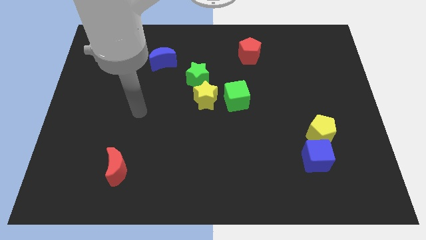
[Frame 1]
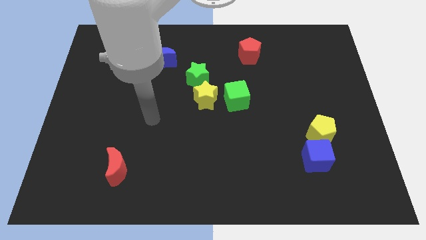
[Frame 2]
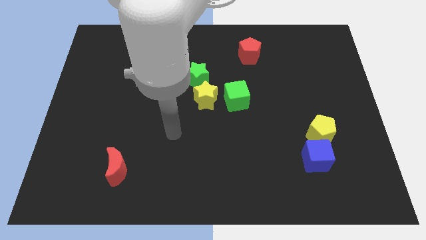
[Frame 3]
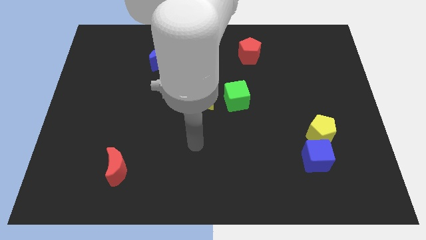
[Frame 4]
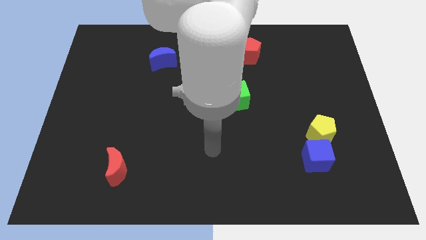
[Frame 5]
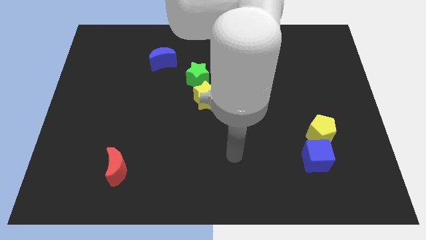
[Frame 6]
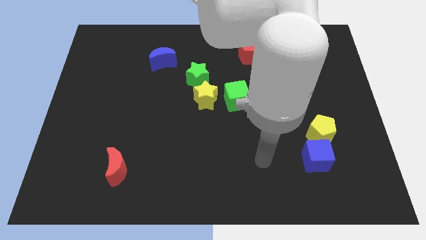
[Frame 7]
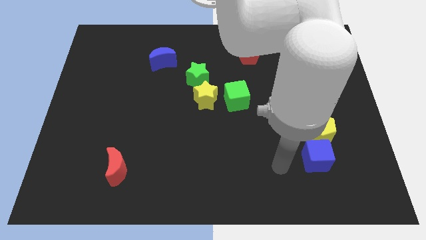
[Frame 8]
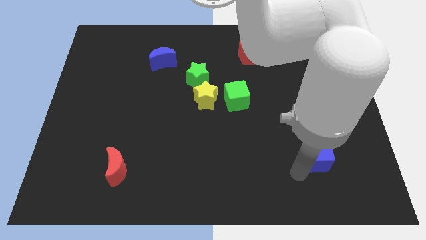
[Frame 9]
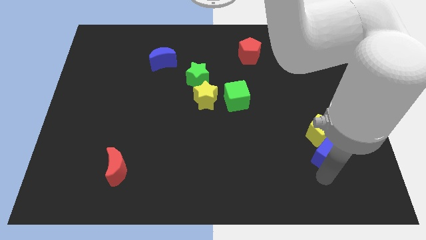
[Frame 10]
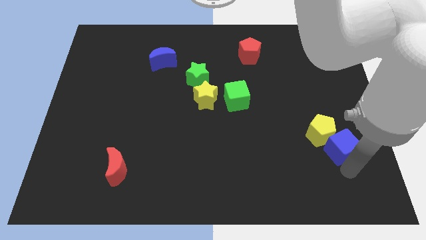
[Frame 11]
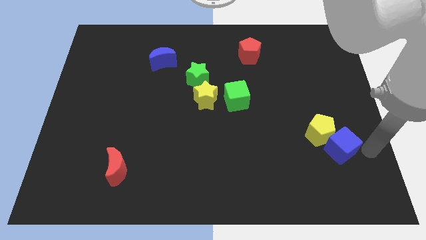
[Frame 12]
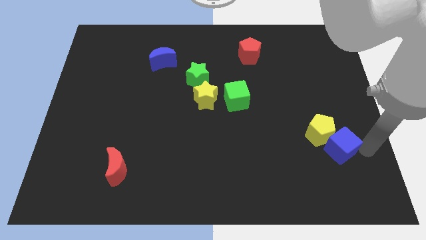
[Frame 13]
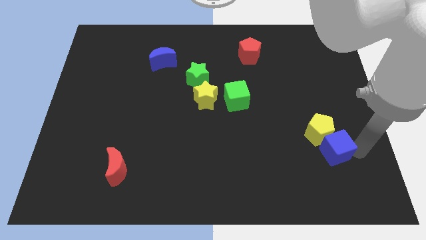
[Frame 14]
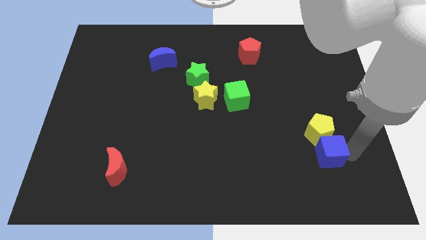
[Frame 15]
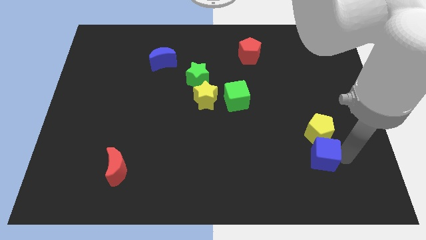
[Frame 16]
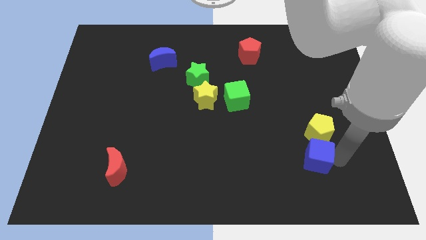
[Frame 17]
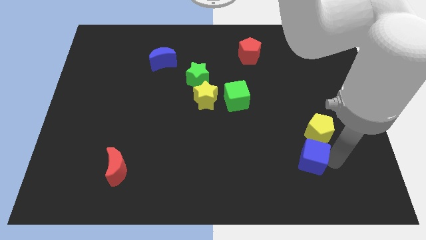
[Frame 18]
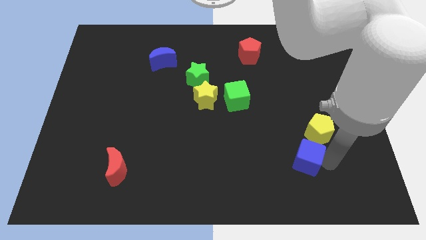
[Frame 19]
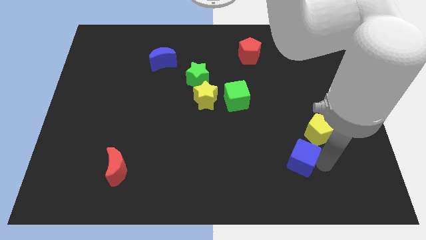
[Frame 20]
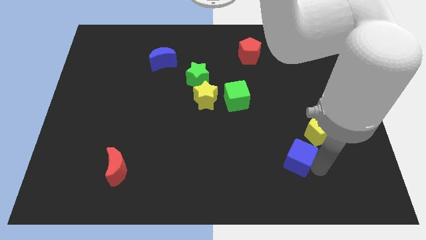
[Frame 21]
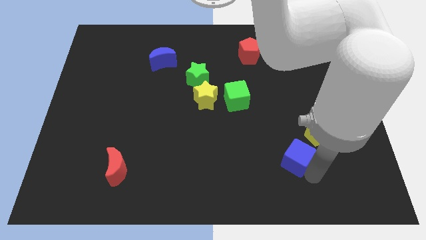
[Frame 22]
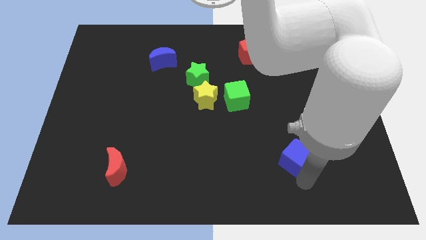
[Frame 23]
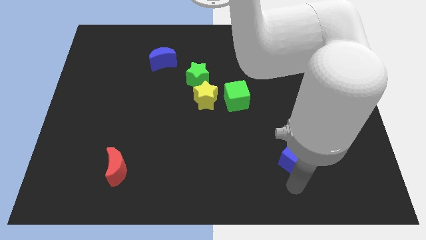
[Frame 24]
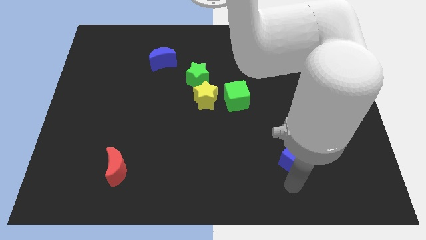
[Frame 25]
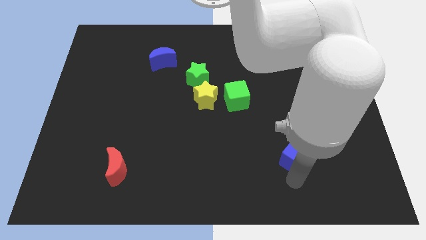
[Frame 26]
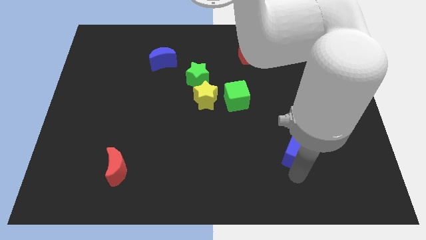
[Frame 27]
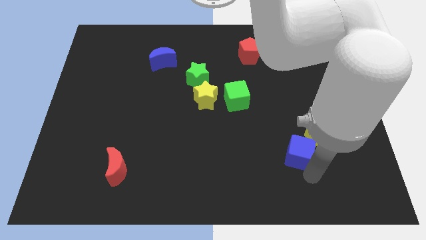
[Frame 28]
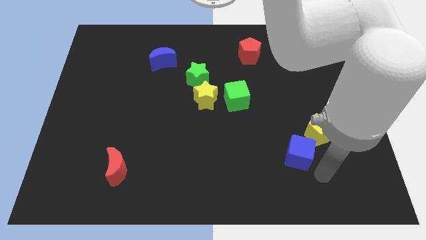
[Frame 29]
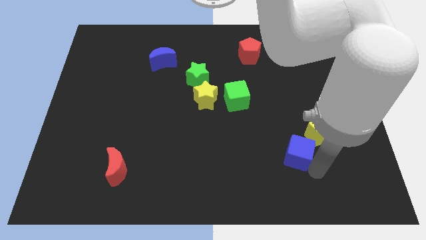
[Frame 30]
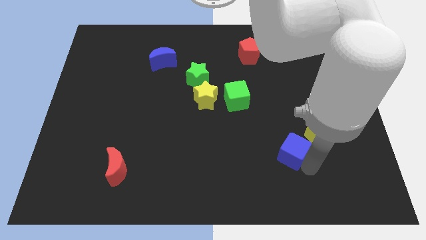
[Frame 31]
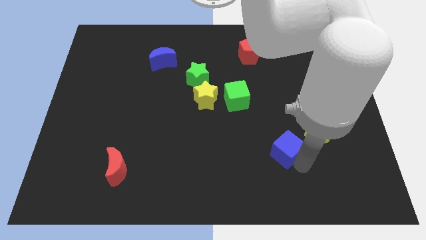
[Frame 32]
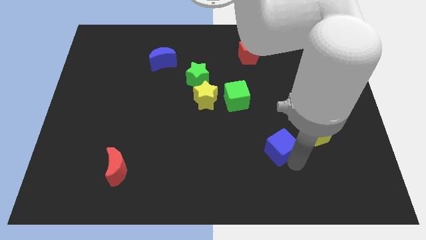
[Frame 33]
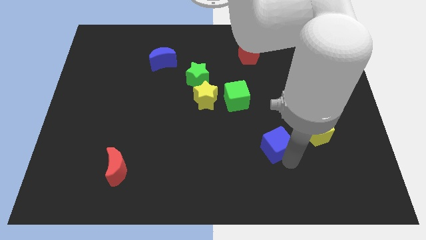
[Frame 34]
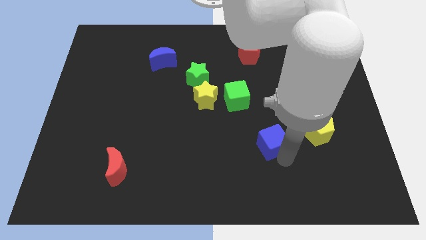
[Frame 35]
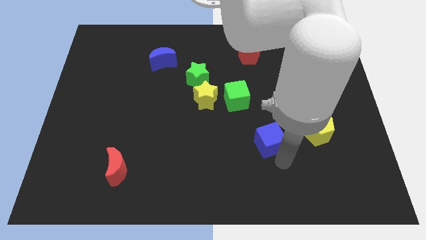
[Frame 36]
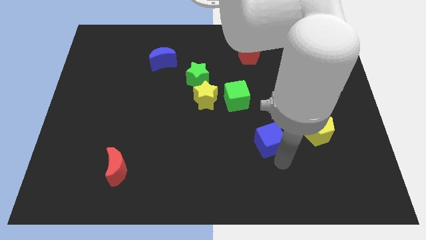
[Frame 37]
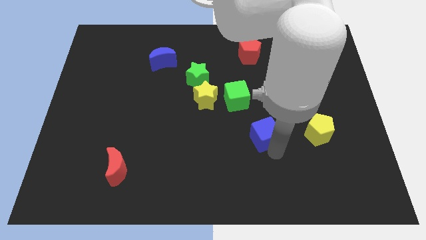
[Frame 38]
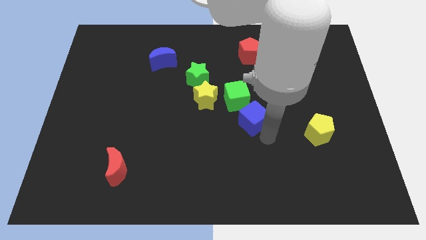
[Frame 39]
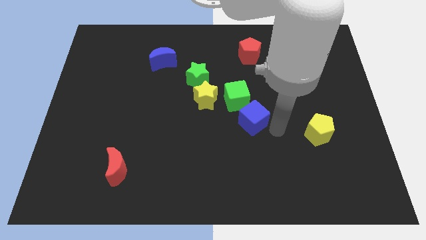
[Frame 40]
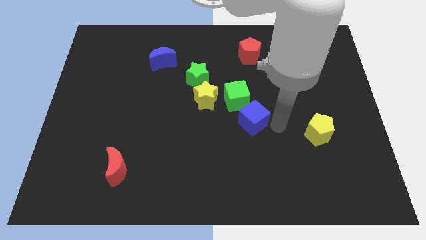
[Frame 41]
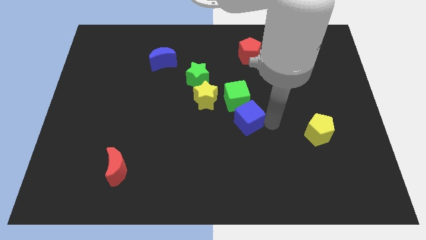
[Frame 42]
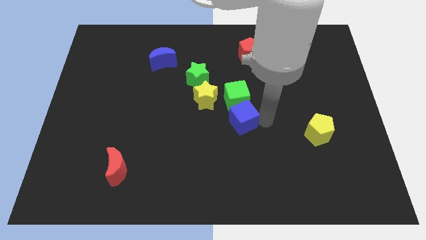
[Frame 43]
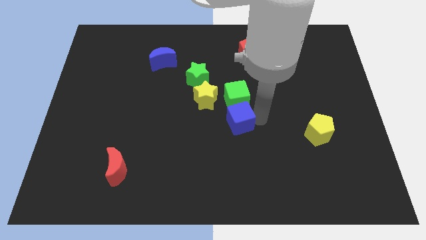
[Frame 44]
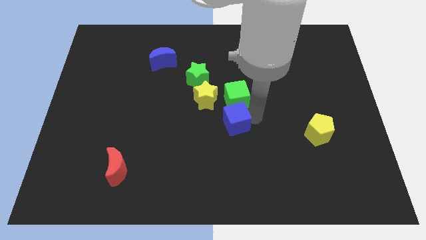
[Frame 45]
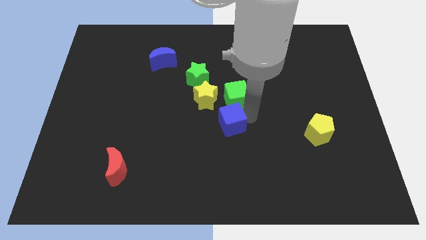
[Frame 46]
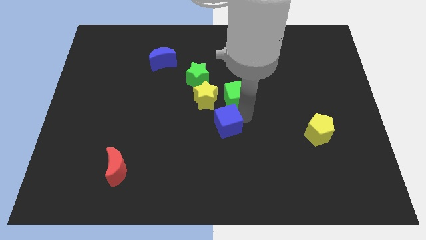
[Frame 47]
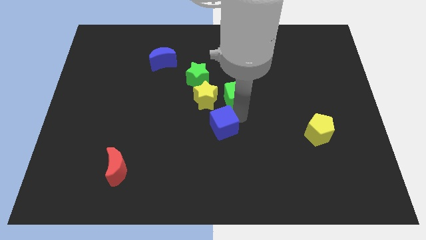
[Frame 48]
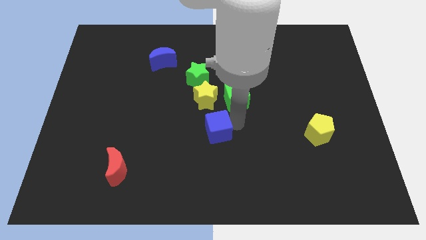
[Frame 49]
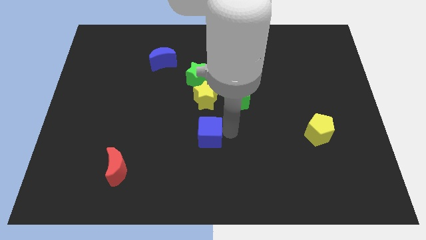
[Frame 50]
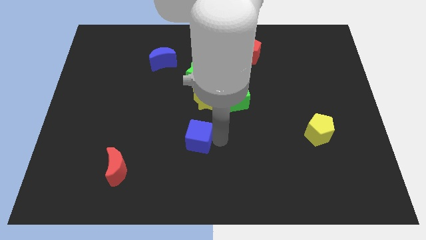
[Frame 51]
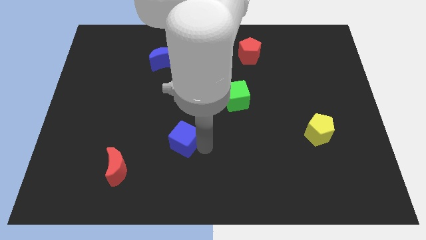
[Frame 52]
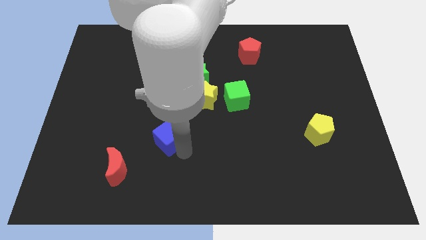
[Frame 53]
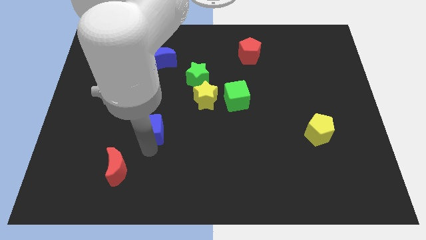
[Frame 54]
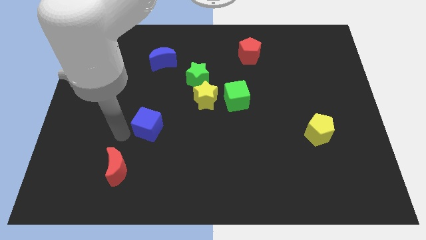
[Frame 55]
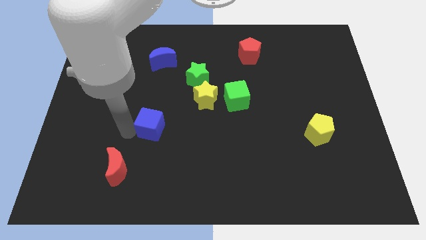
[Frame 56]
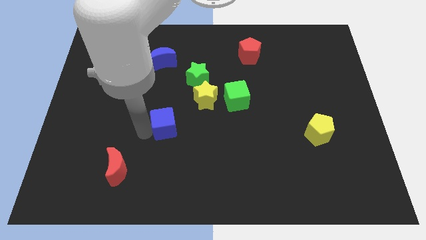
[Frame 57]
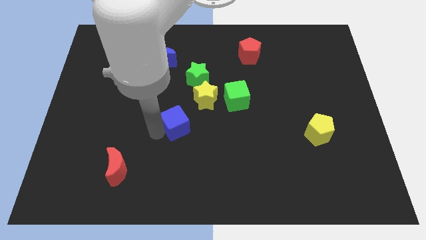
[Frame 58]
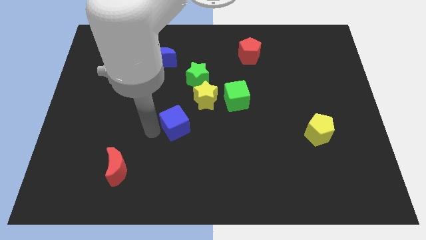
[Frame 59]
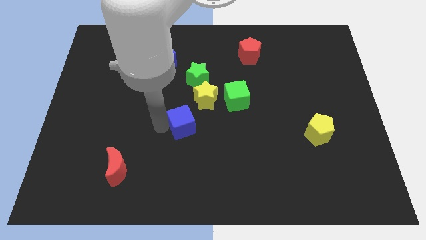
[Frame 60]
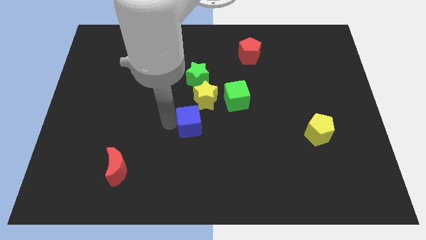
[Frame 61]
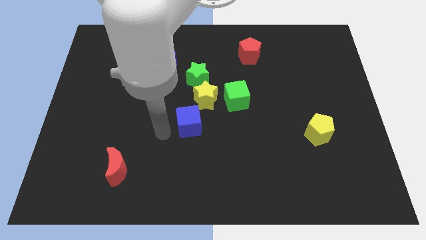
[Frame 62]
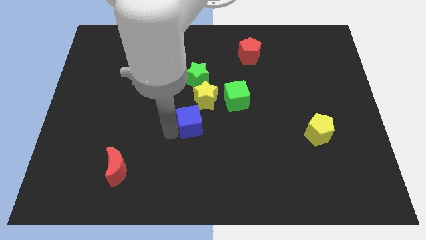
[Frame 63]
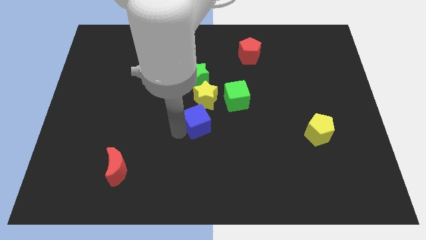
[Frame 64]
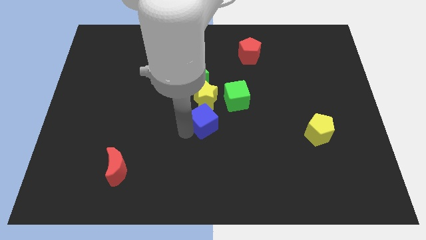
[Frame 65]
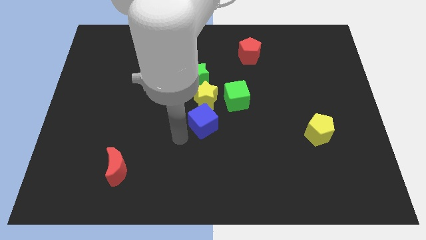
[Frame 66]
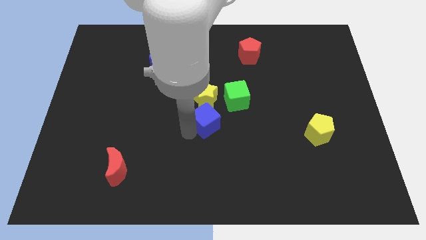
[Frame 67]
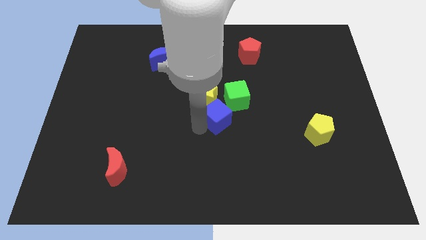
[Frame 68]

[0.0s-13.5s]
move the blue cube to the yellow star

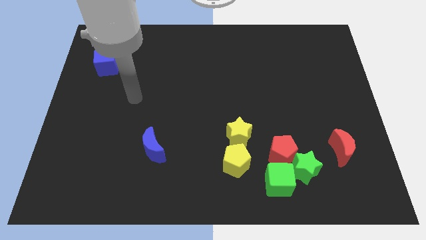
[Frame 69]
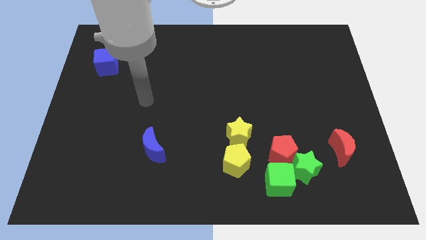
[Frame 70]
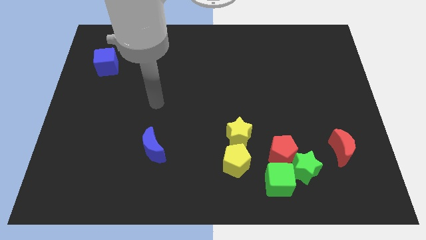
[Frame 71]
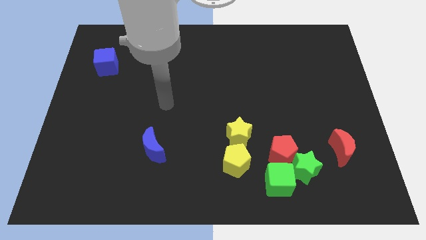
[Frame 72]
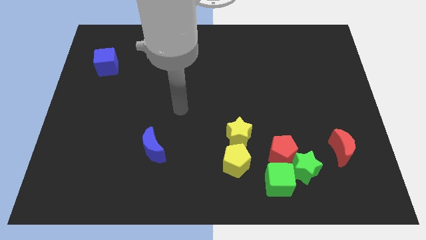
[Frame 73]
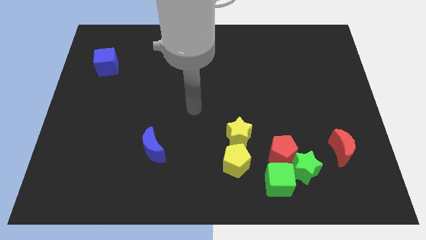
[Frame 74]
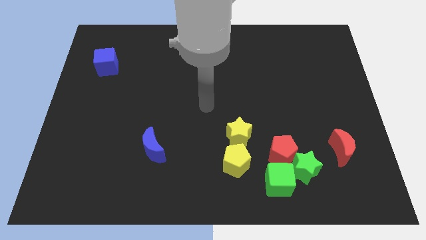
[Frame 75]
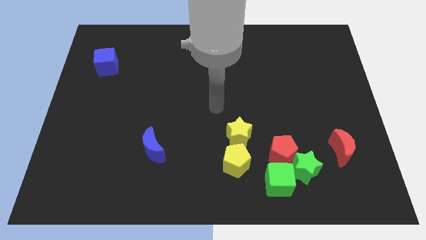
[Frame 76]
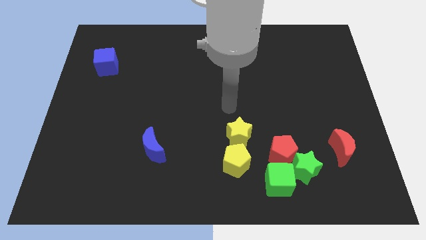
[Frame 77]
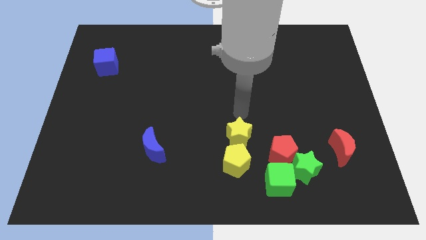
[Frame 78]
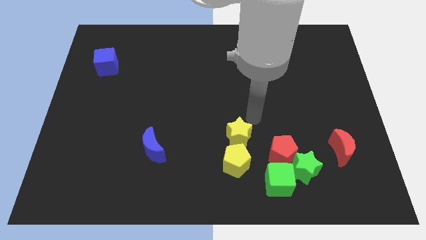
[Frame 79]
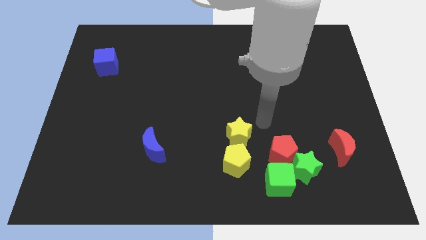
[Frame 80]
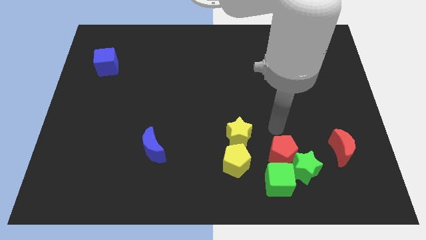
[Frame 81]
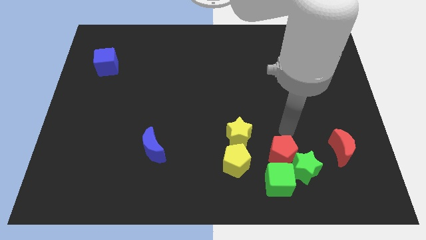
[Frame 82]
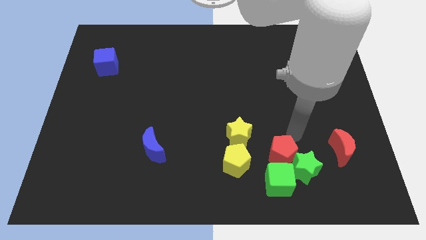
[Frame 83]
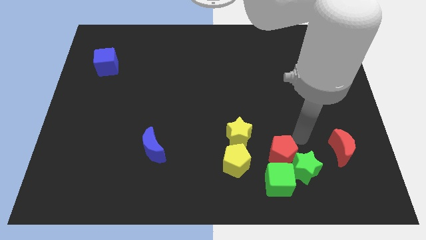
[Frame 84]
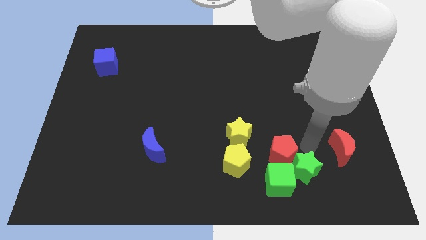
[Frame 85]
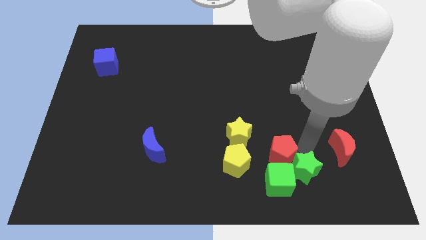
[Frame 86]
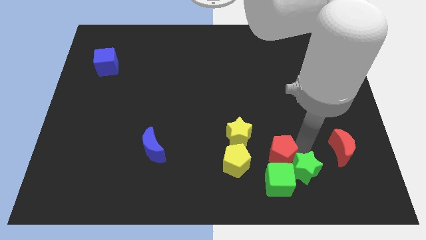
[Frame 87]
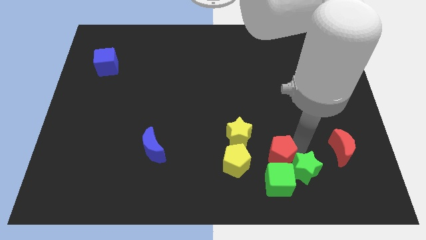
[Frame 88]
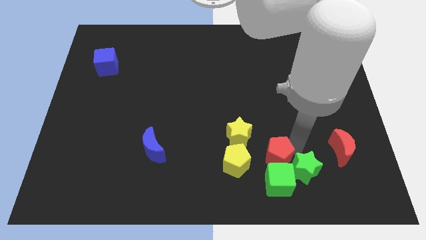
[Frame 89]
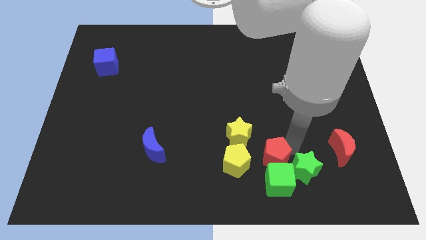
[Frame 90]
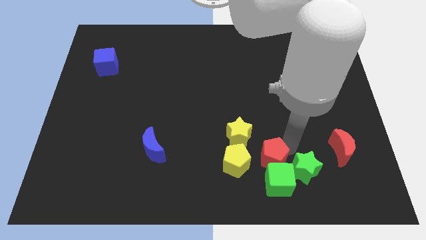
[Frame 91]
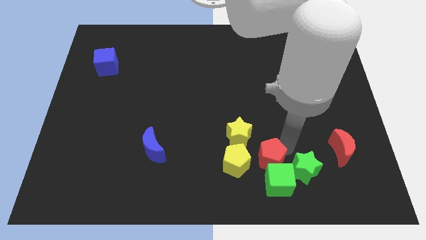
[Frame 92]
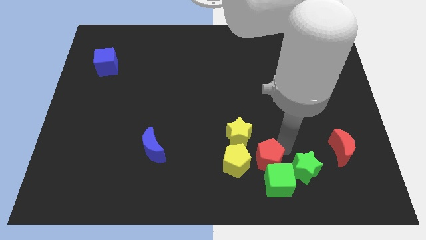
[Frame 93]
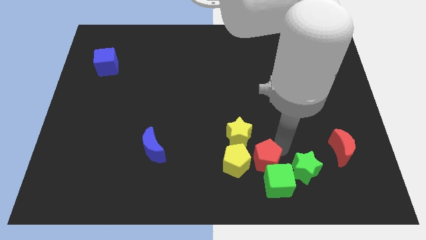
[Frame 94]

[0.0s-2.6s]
move the red pentagon close to the yellow pentagon
